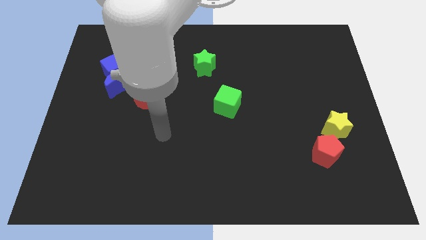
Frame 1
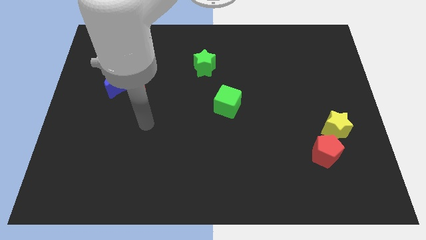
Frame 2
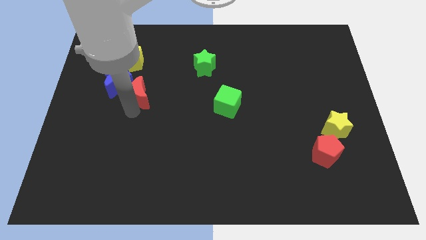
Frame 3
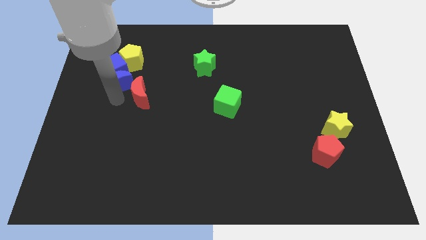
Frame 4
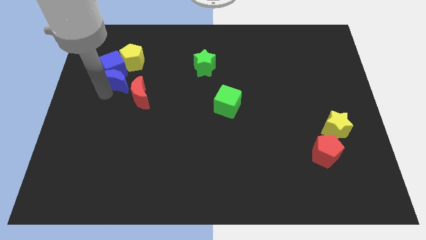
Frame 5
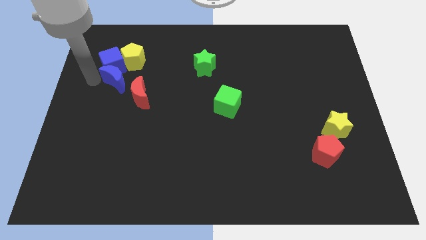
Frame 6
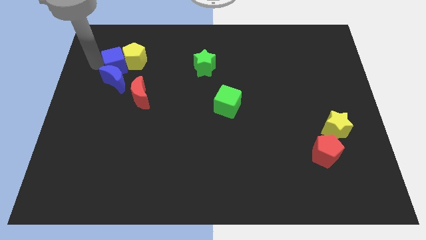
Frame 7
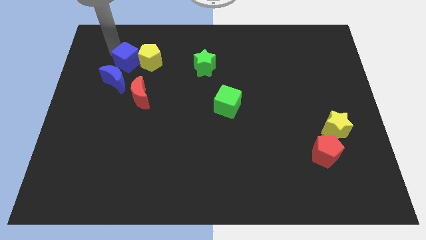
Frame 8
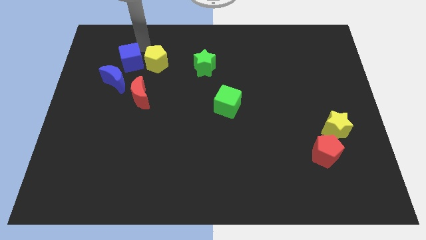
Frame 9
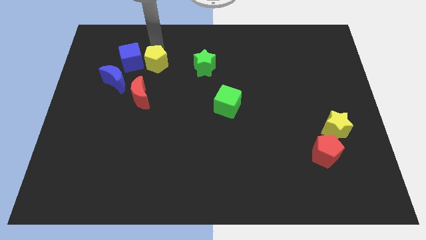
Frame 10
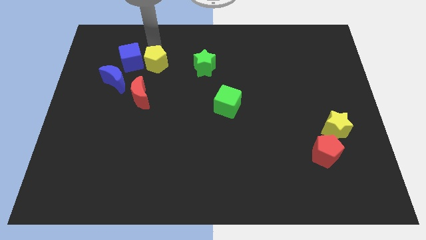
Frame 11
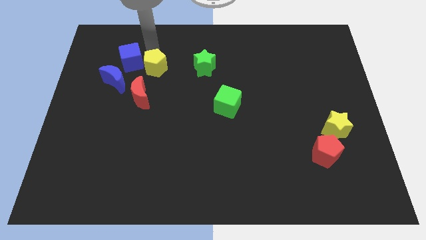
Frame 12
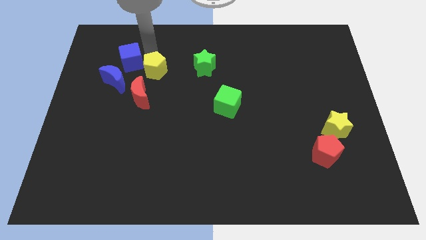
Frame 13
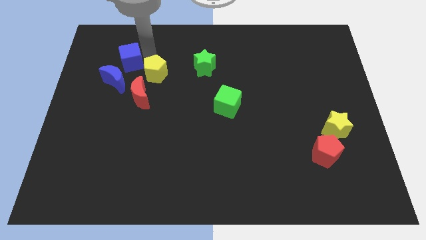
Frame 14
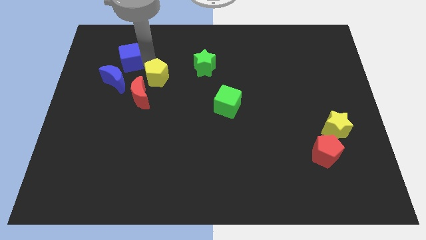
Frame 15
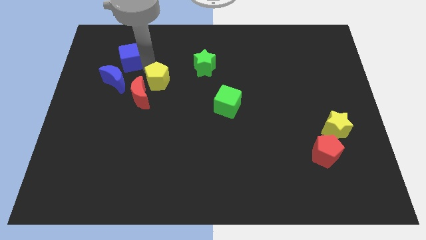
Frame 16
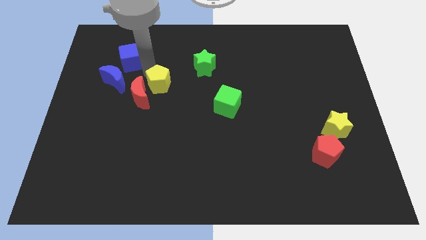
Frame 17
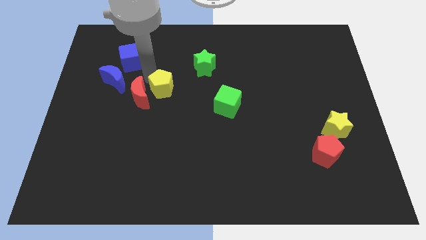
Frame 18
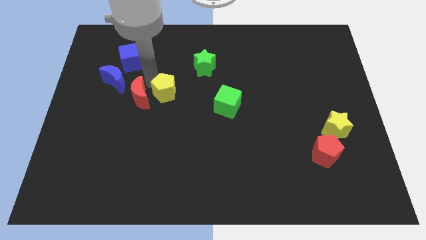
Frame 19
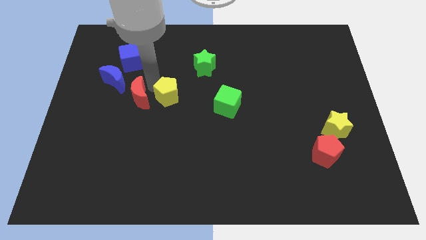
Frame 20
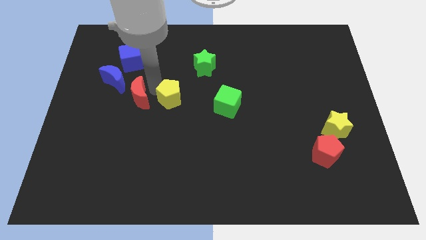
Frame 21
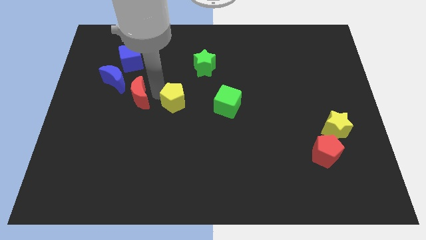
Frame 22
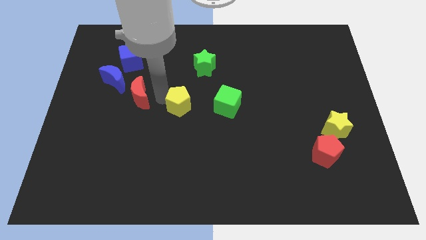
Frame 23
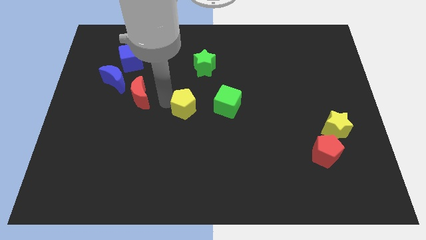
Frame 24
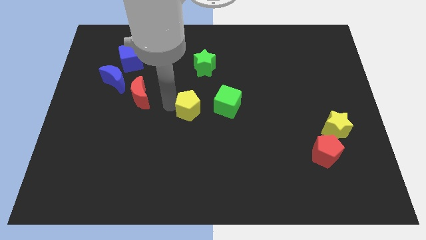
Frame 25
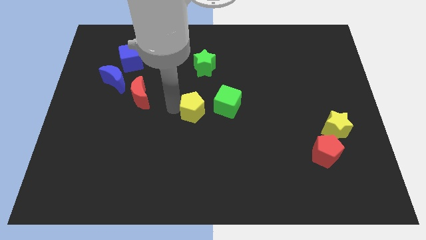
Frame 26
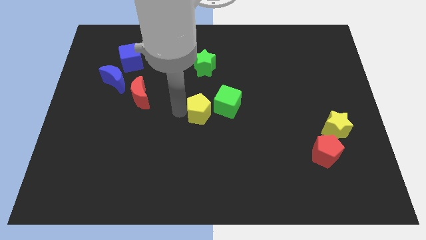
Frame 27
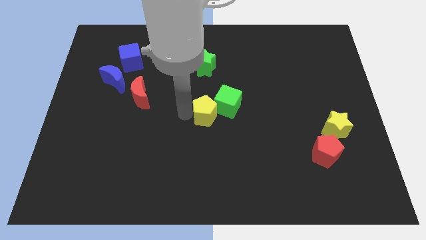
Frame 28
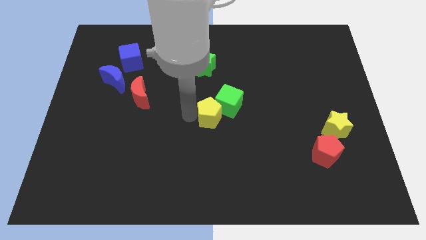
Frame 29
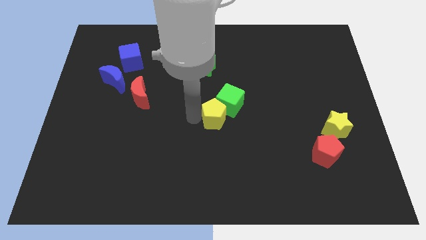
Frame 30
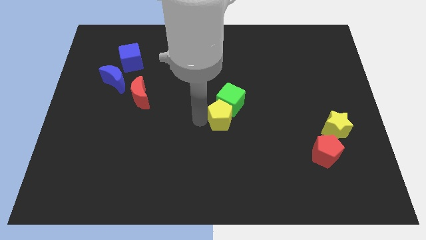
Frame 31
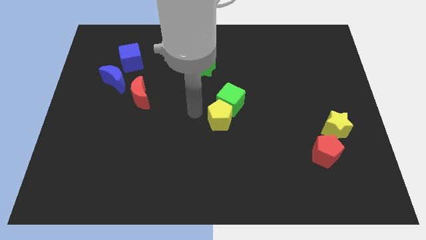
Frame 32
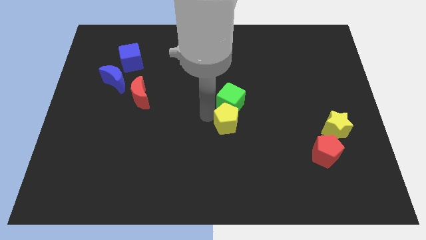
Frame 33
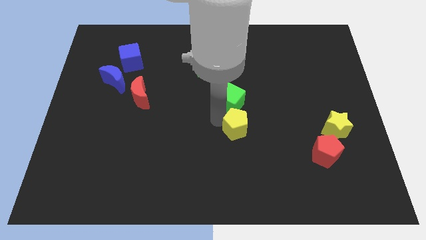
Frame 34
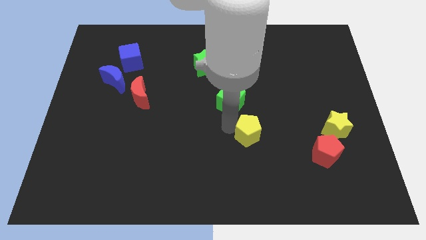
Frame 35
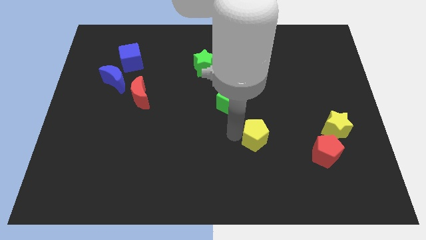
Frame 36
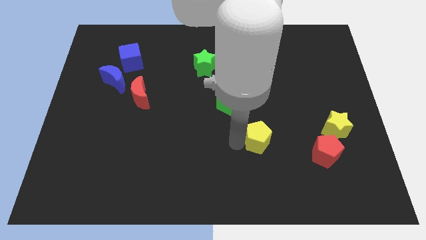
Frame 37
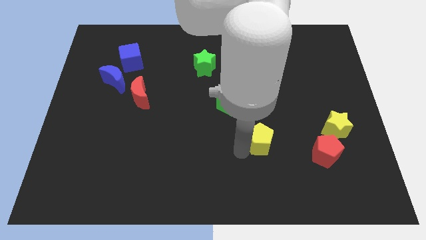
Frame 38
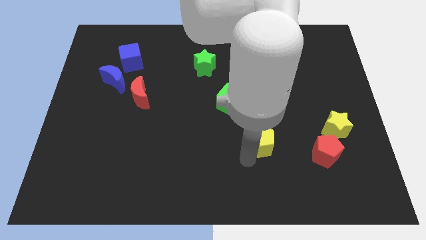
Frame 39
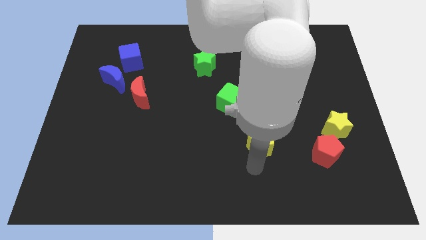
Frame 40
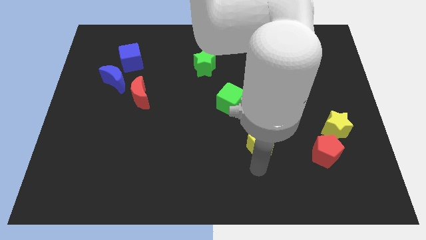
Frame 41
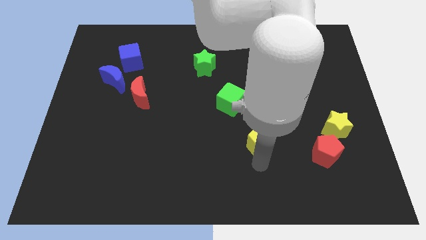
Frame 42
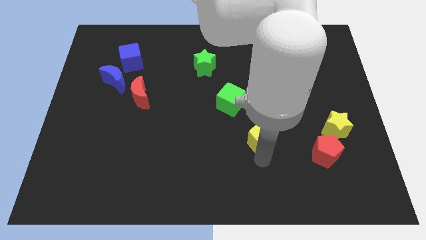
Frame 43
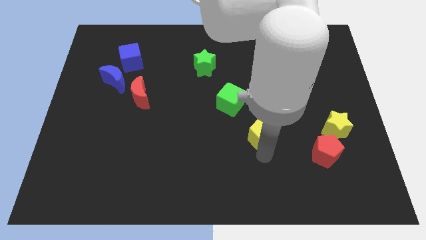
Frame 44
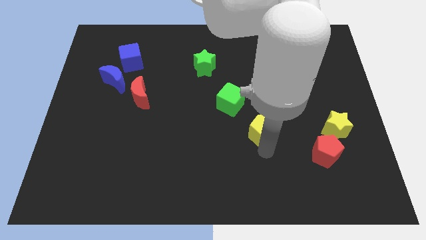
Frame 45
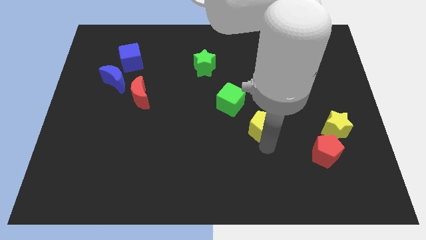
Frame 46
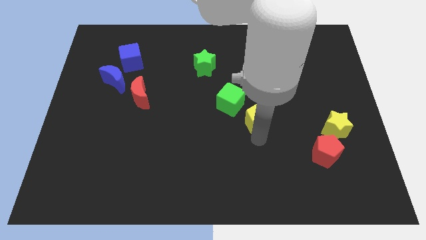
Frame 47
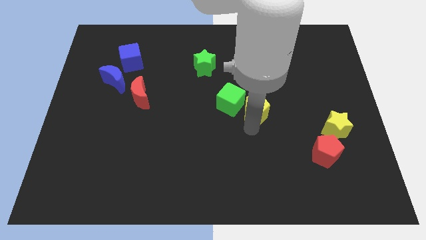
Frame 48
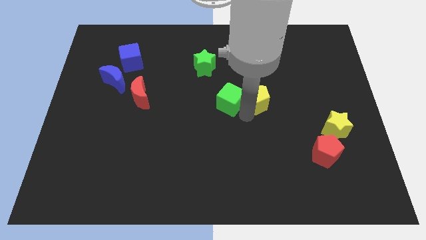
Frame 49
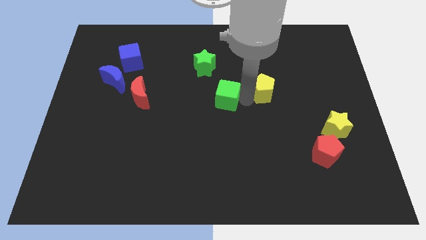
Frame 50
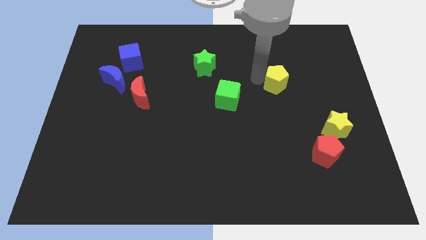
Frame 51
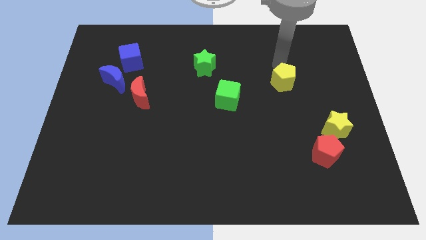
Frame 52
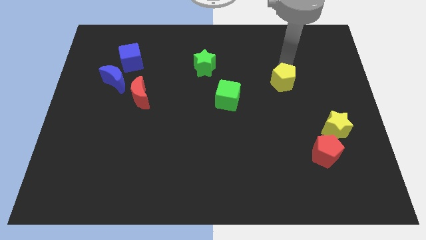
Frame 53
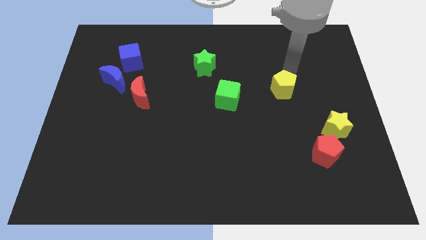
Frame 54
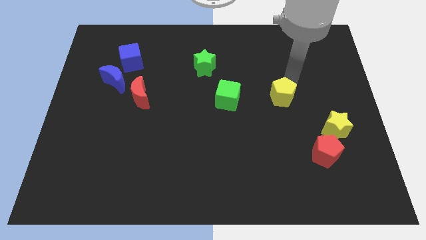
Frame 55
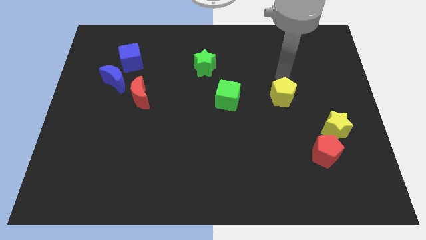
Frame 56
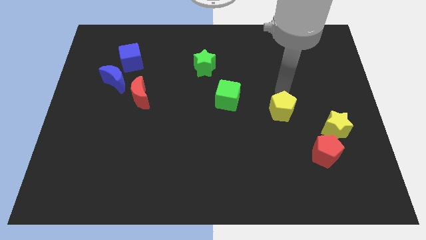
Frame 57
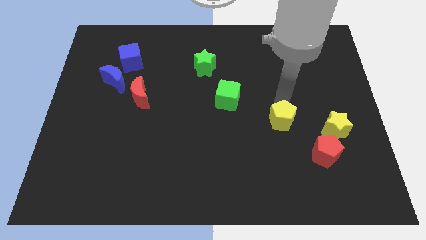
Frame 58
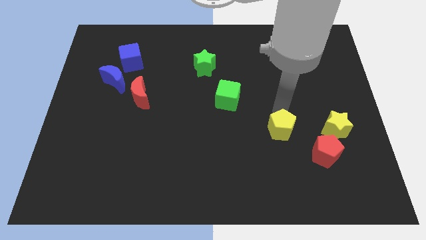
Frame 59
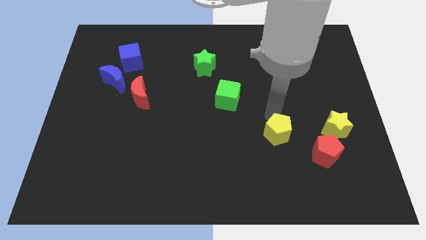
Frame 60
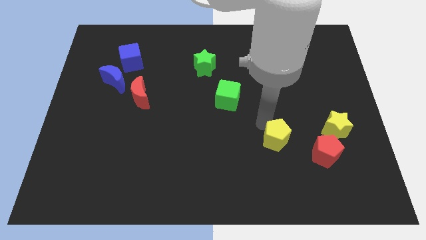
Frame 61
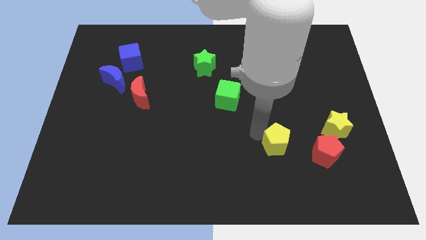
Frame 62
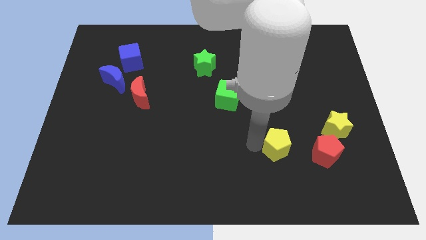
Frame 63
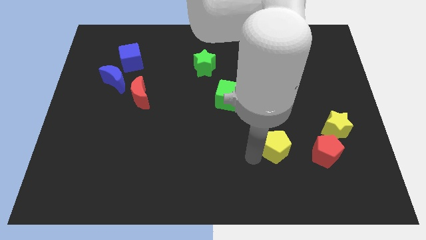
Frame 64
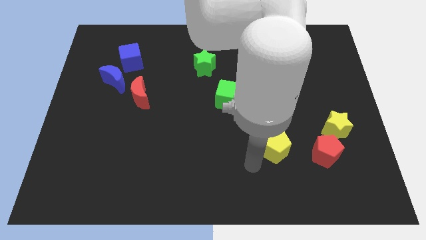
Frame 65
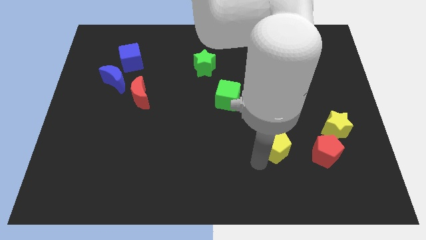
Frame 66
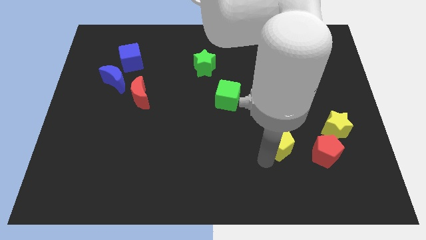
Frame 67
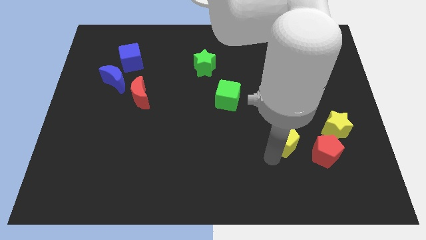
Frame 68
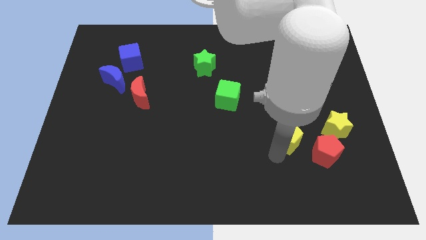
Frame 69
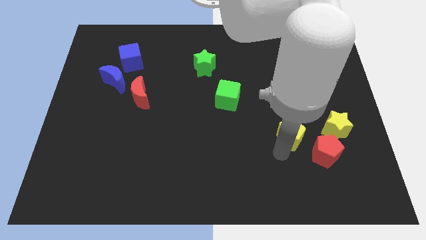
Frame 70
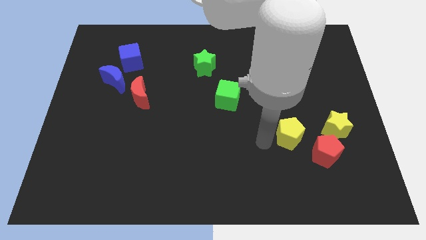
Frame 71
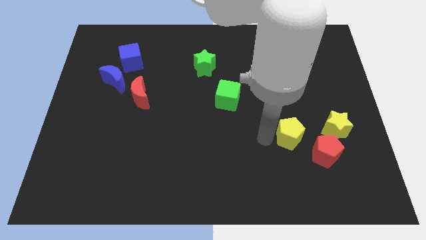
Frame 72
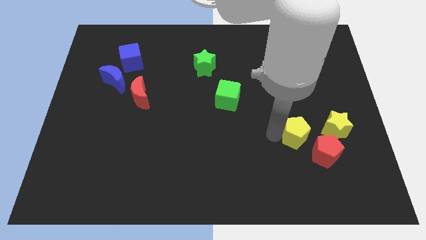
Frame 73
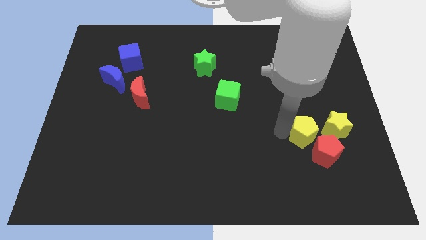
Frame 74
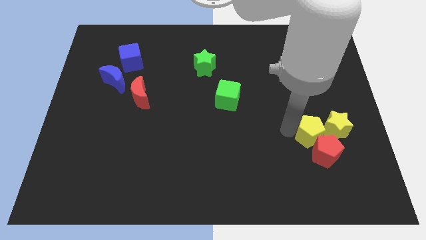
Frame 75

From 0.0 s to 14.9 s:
slide the yellow pentagon to the yellow star
